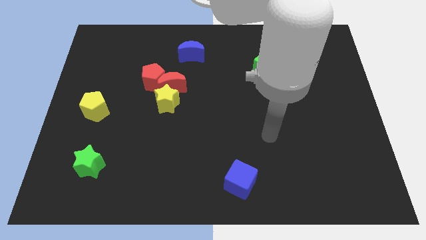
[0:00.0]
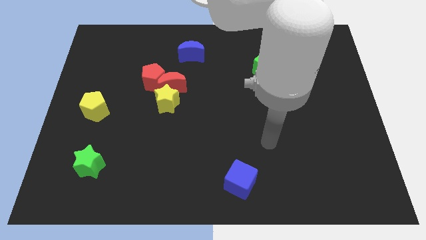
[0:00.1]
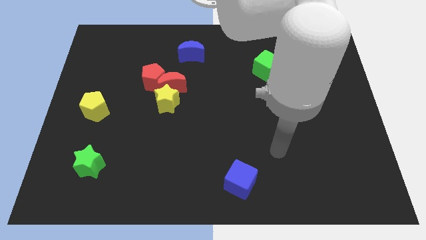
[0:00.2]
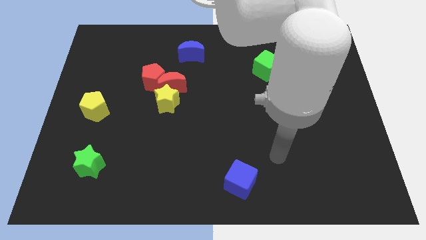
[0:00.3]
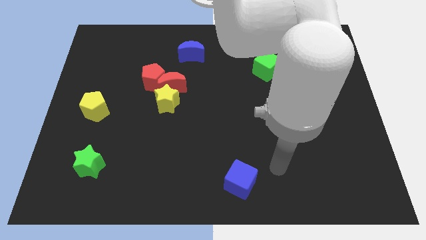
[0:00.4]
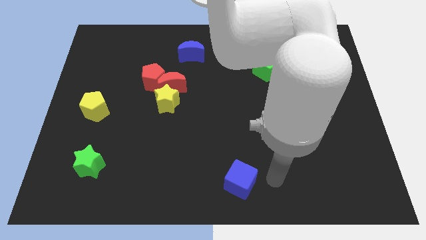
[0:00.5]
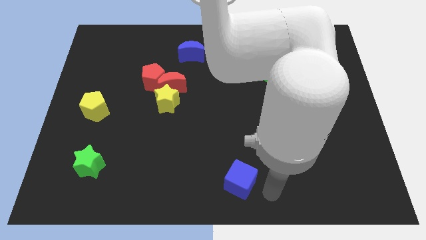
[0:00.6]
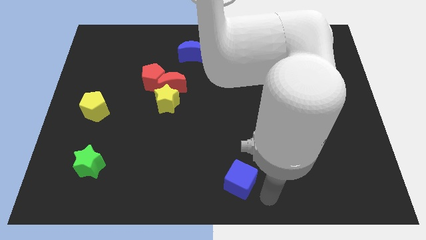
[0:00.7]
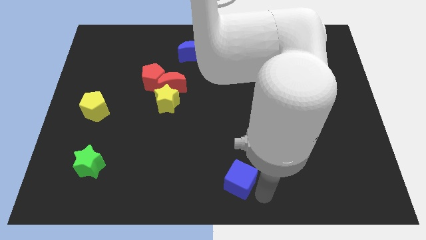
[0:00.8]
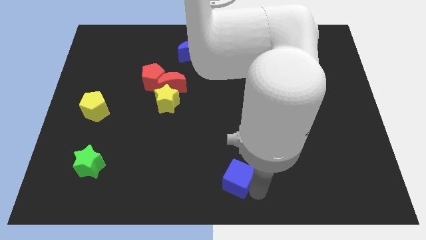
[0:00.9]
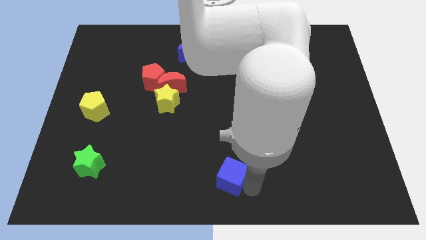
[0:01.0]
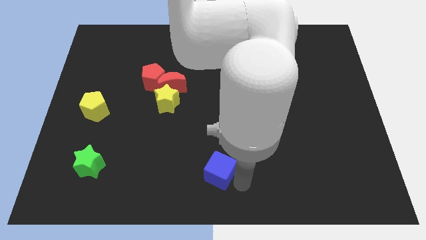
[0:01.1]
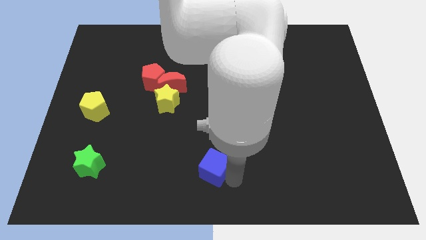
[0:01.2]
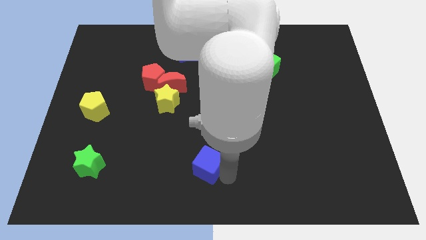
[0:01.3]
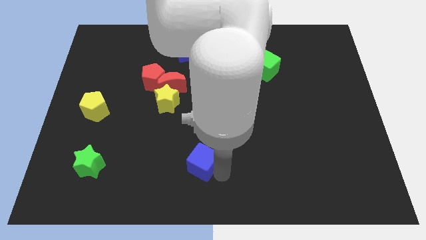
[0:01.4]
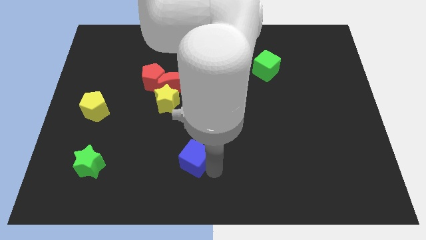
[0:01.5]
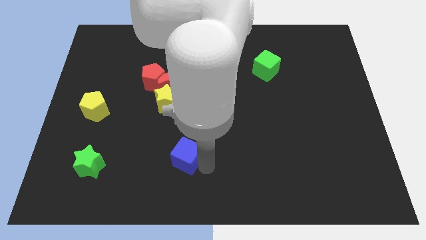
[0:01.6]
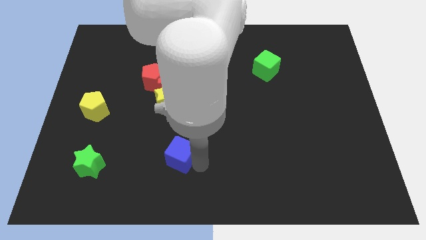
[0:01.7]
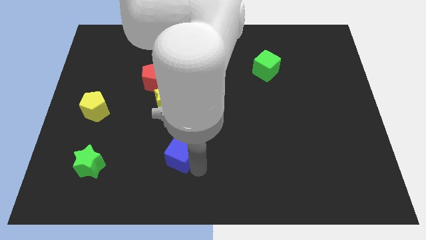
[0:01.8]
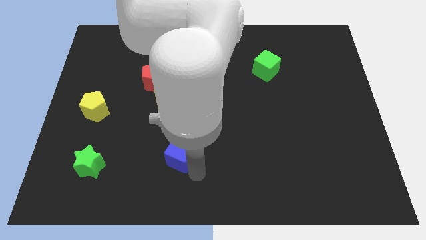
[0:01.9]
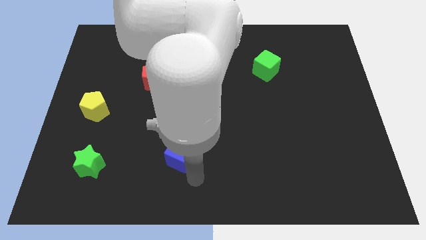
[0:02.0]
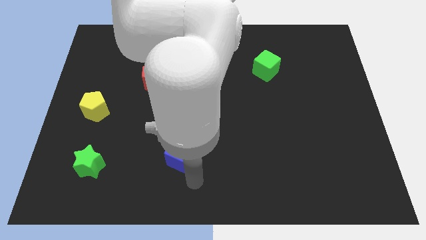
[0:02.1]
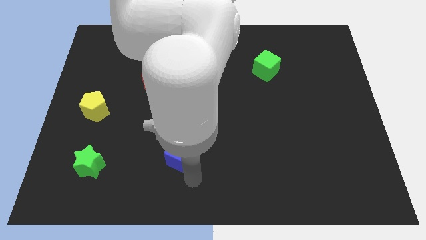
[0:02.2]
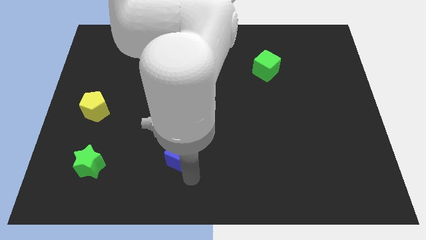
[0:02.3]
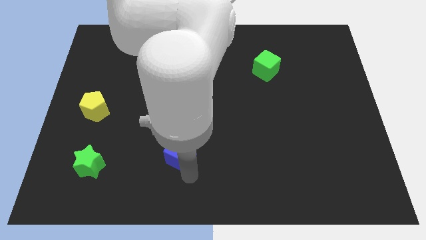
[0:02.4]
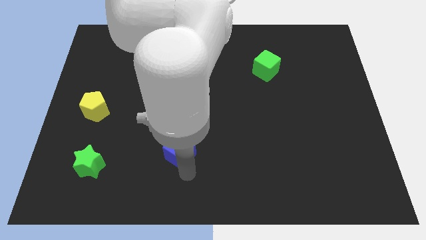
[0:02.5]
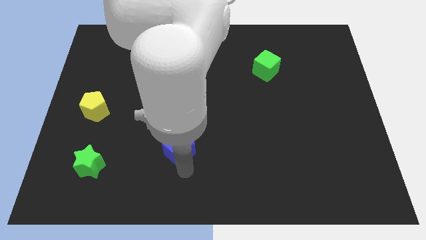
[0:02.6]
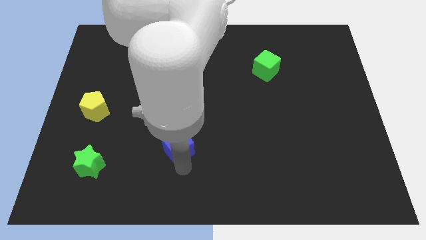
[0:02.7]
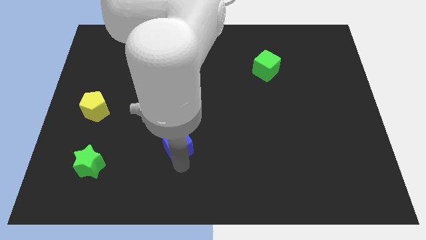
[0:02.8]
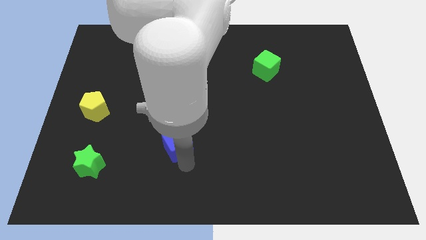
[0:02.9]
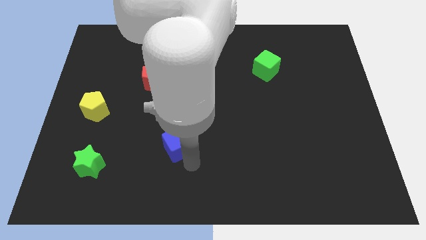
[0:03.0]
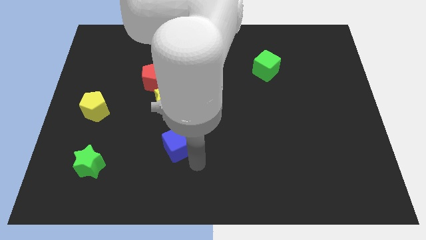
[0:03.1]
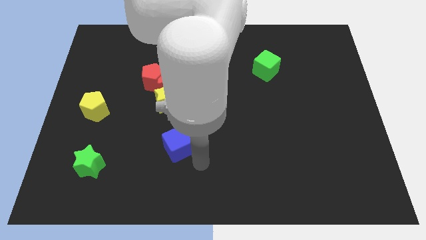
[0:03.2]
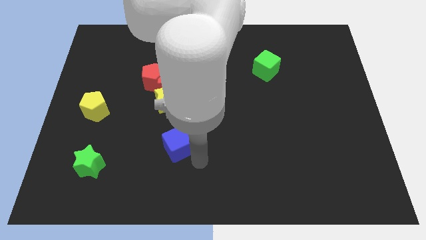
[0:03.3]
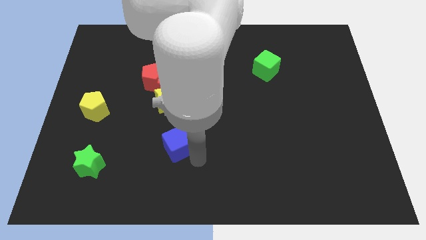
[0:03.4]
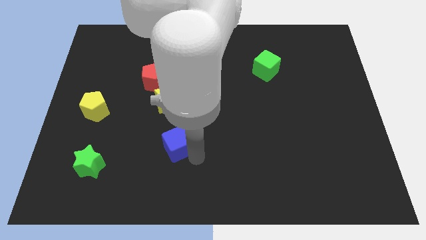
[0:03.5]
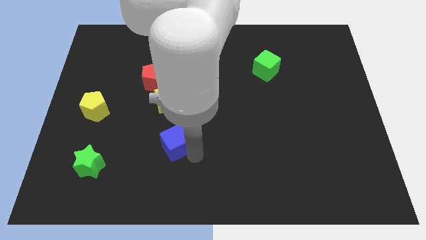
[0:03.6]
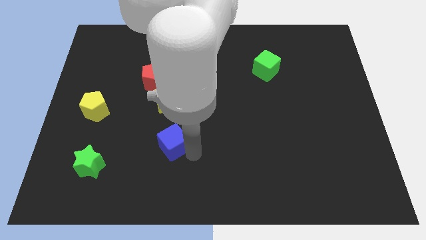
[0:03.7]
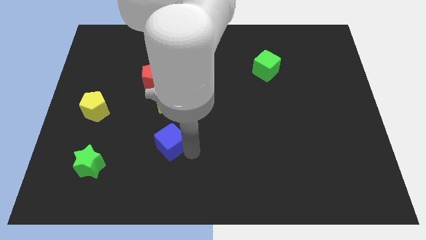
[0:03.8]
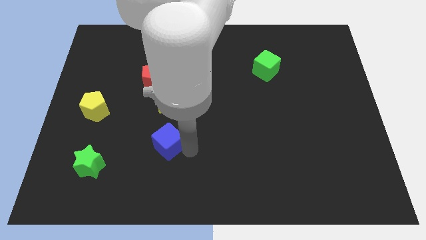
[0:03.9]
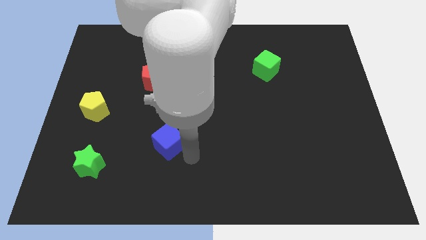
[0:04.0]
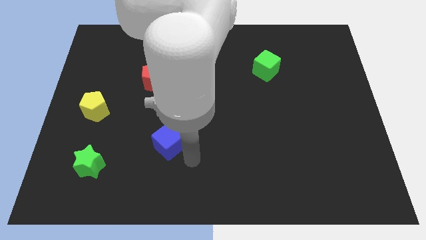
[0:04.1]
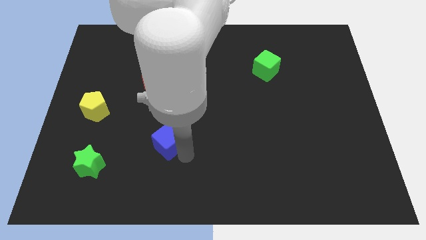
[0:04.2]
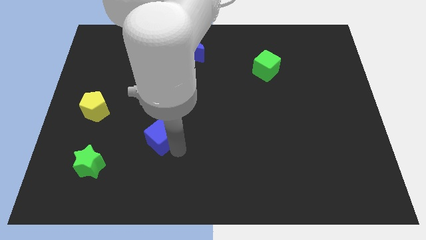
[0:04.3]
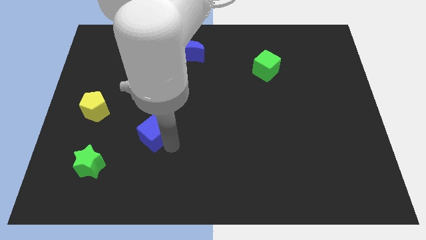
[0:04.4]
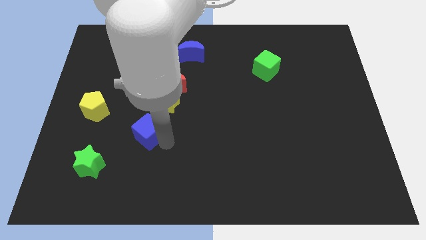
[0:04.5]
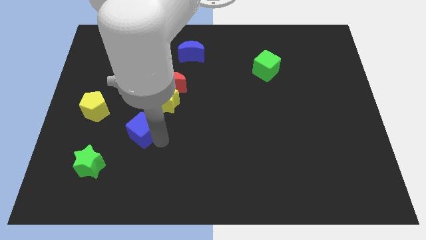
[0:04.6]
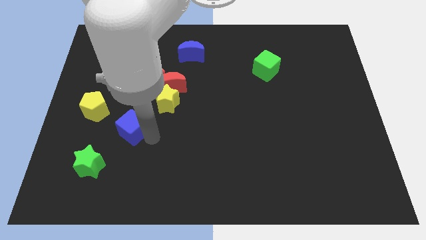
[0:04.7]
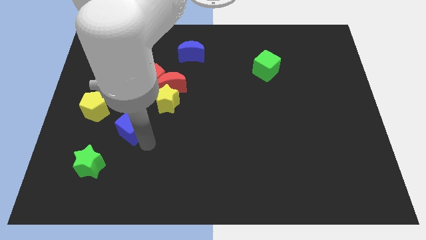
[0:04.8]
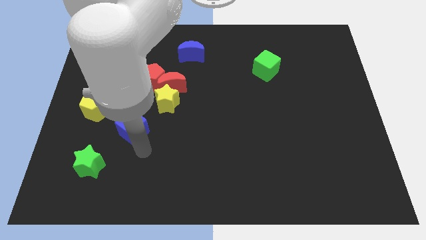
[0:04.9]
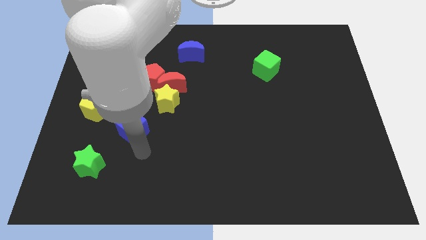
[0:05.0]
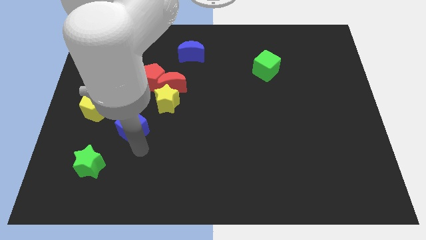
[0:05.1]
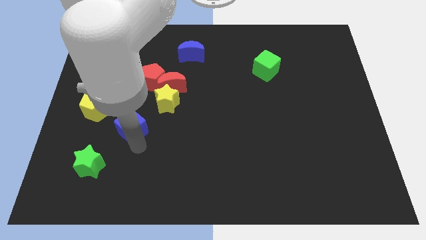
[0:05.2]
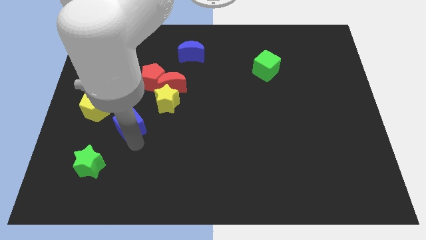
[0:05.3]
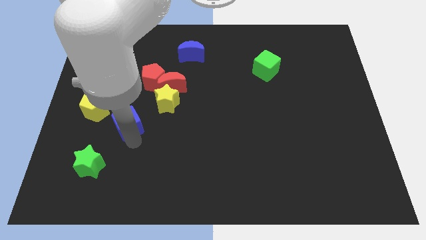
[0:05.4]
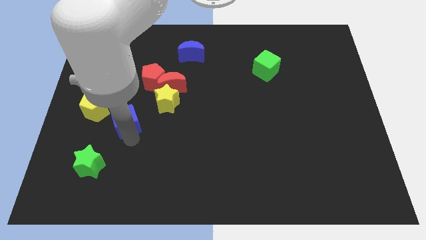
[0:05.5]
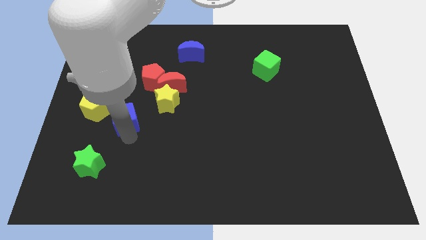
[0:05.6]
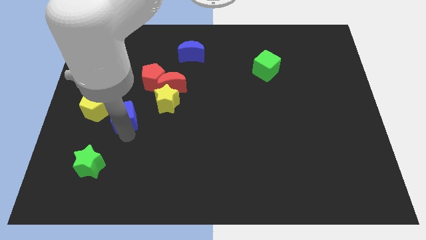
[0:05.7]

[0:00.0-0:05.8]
move the blue cube left of the yellow star
